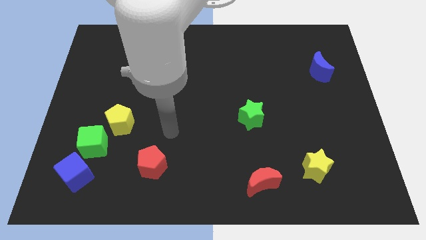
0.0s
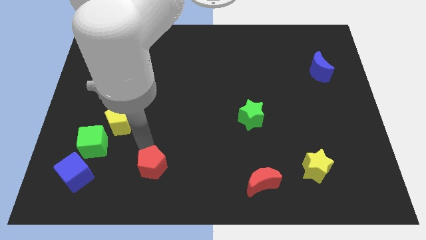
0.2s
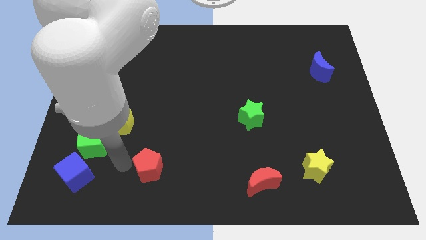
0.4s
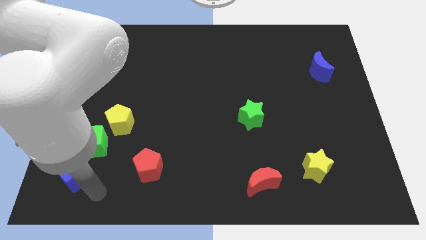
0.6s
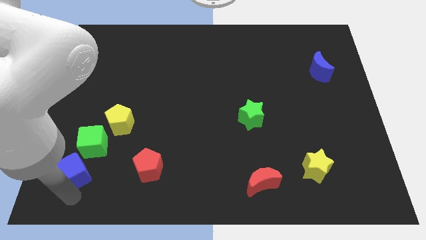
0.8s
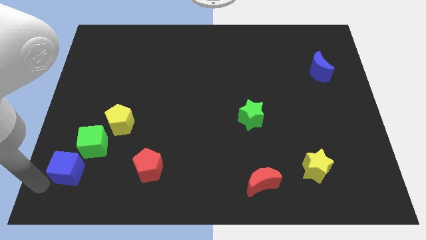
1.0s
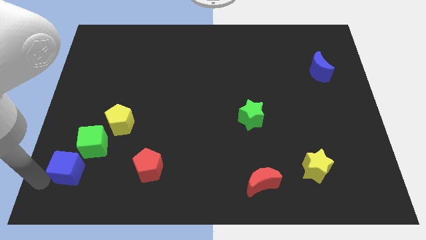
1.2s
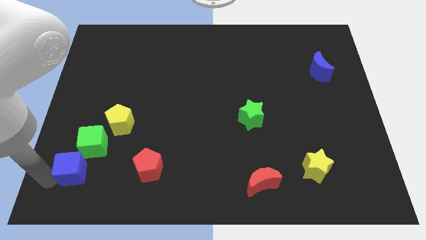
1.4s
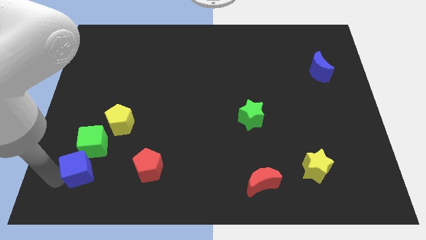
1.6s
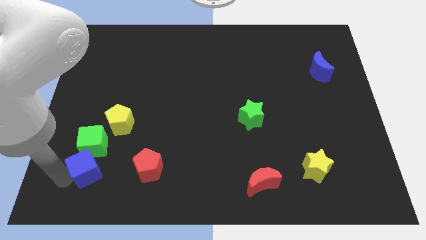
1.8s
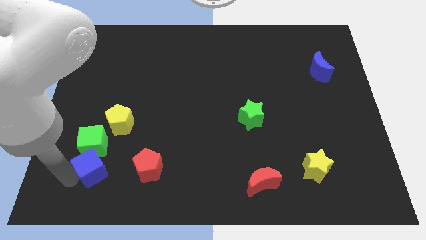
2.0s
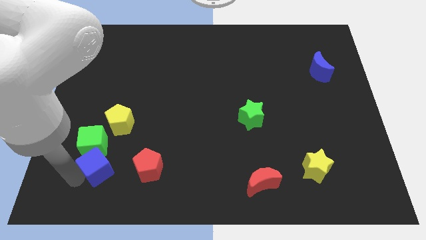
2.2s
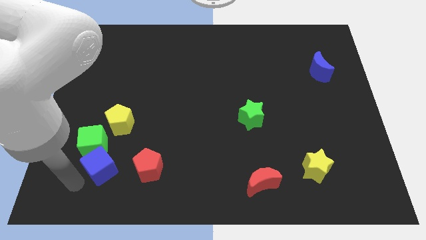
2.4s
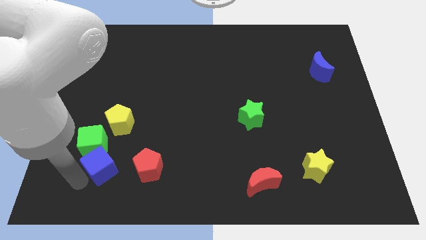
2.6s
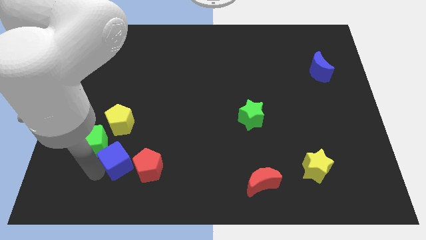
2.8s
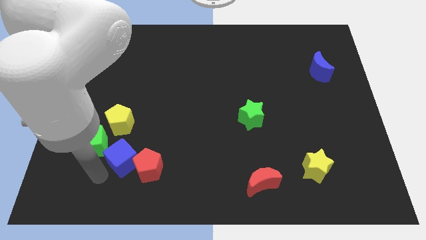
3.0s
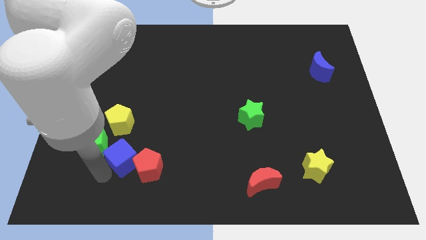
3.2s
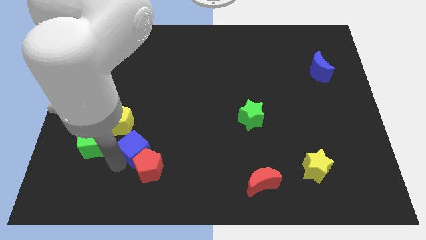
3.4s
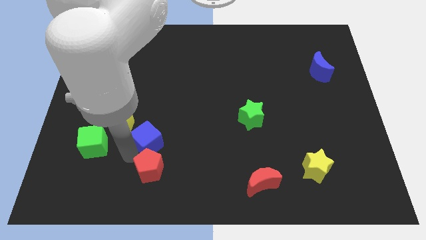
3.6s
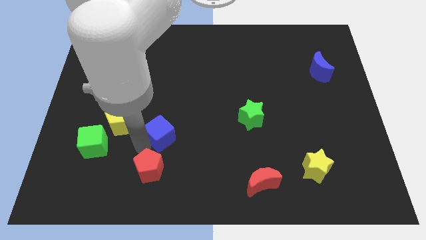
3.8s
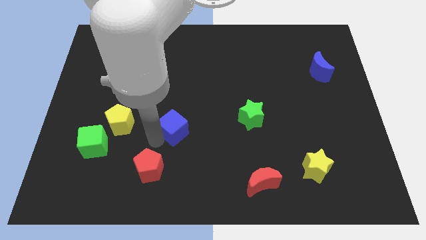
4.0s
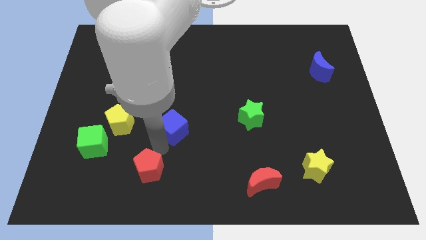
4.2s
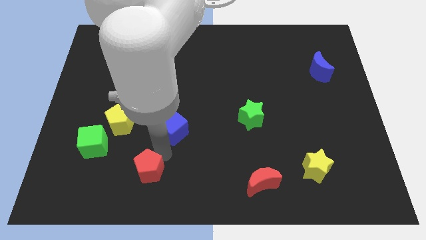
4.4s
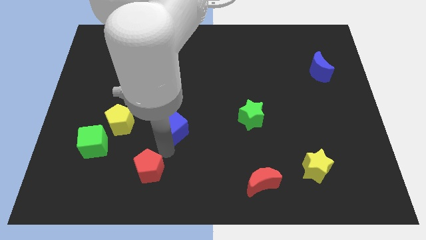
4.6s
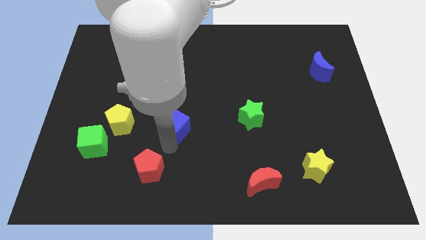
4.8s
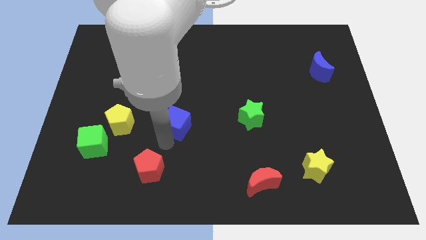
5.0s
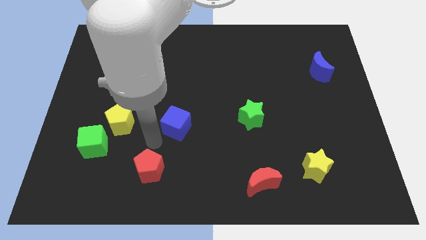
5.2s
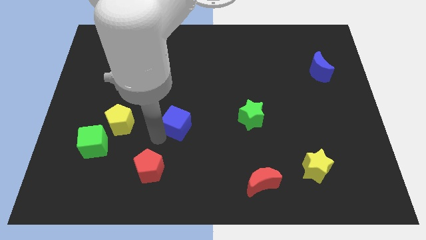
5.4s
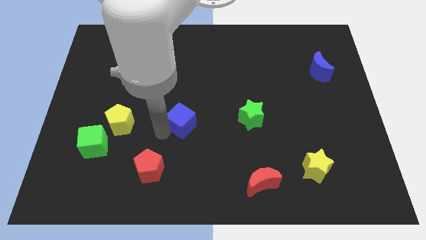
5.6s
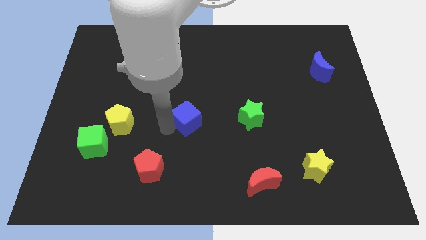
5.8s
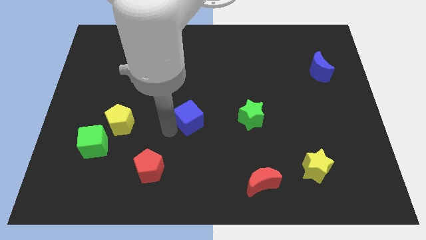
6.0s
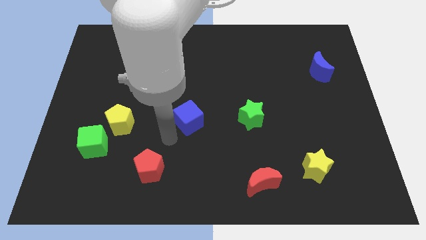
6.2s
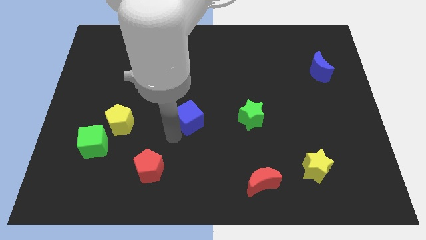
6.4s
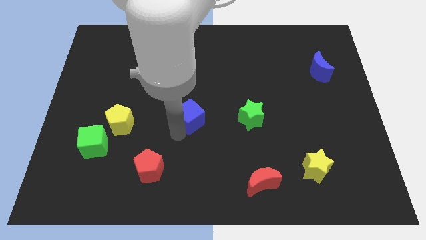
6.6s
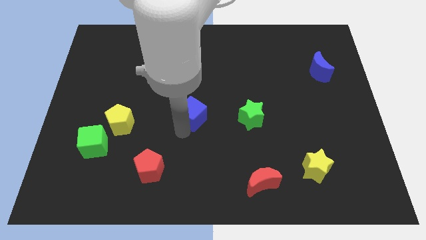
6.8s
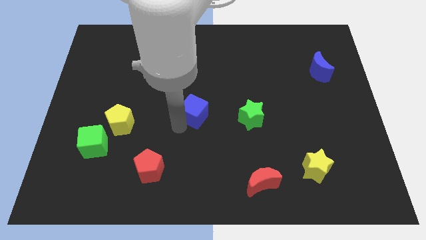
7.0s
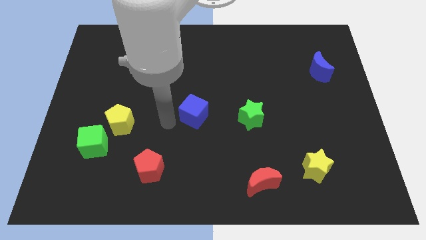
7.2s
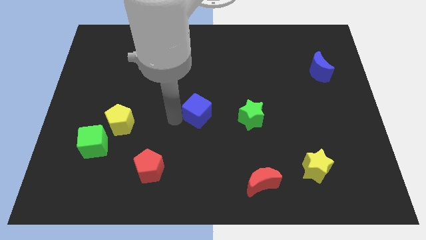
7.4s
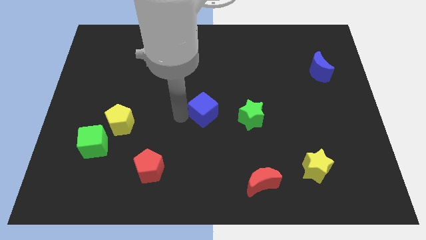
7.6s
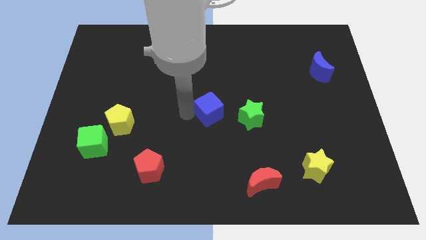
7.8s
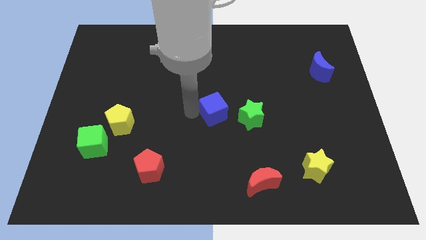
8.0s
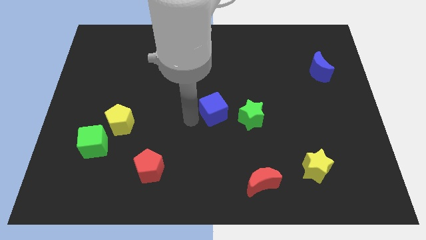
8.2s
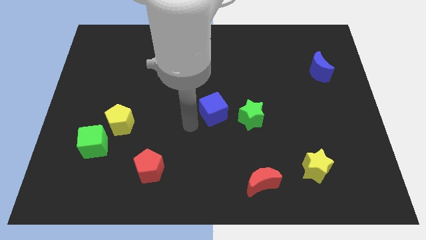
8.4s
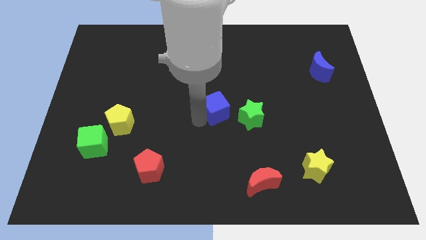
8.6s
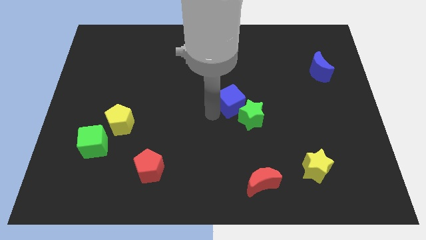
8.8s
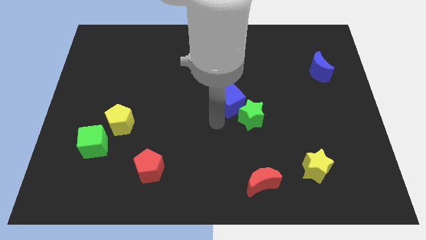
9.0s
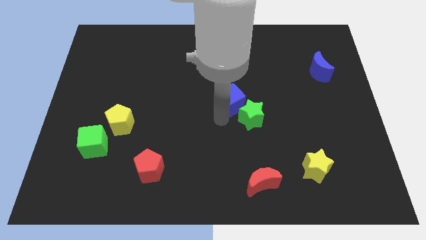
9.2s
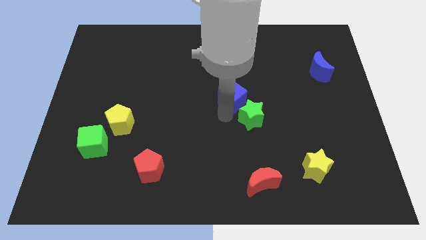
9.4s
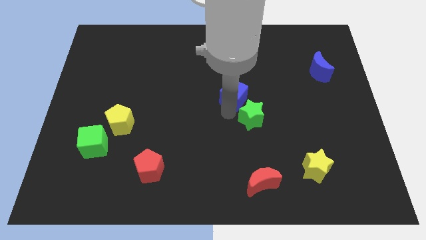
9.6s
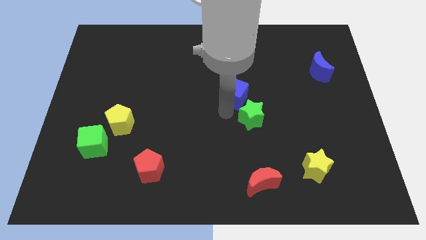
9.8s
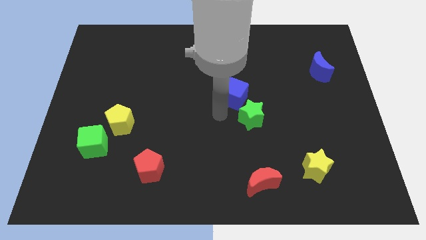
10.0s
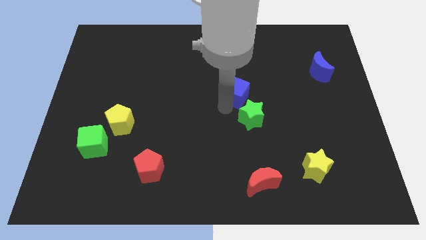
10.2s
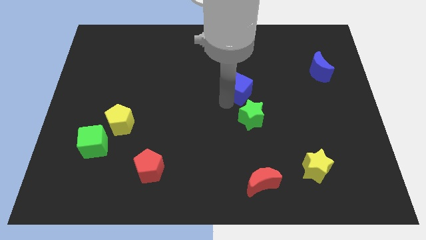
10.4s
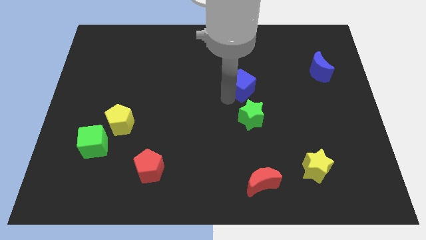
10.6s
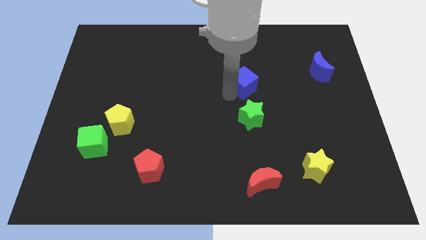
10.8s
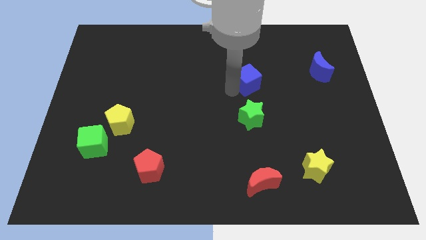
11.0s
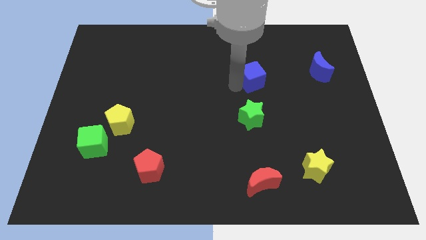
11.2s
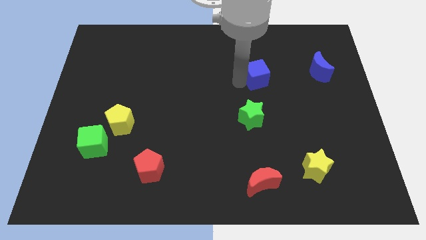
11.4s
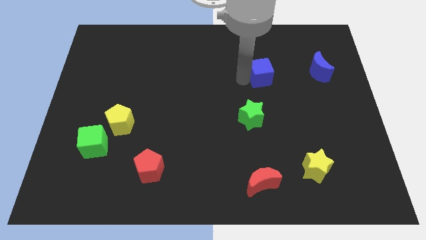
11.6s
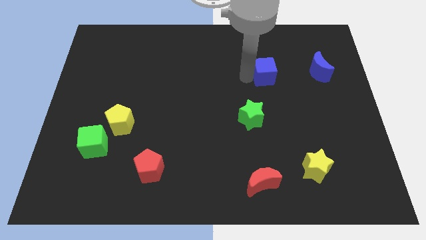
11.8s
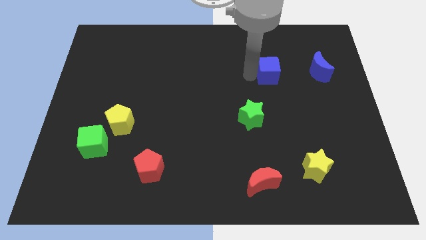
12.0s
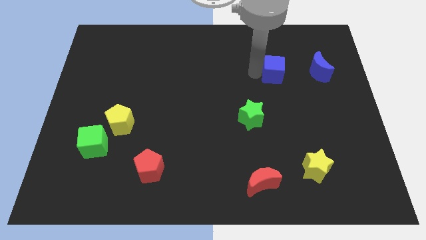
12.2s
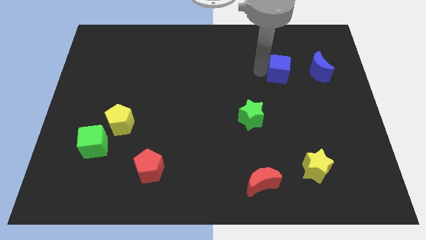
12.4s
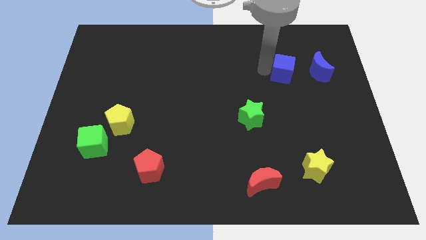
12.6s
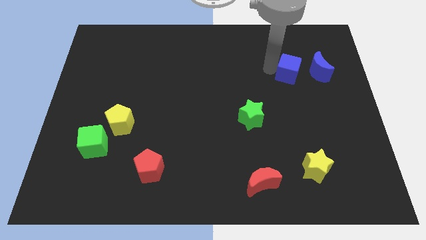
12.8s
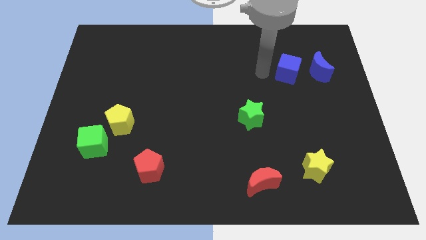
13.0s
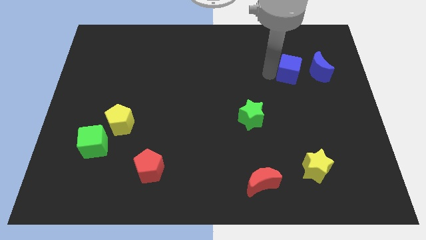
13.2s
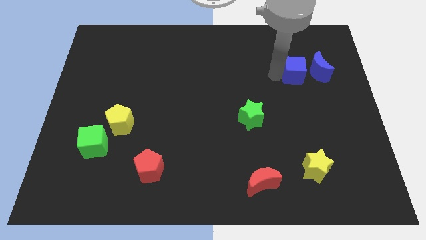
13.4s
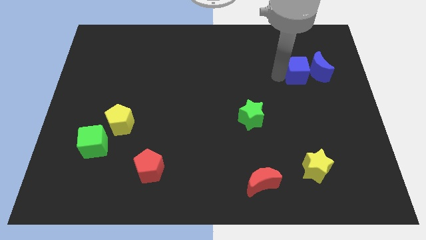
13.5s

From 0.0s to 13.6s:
put the blue cube towards the blue moon
